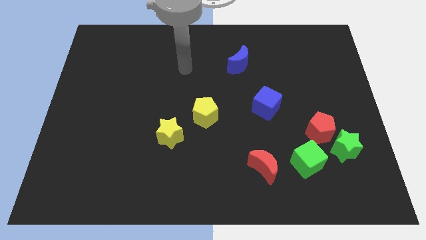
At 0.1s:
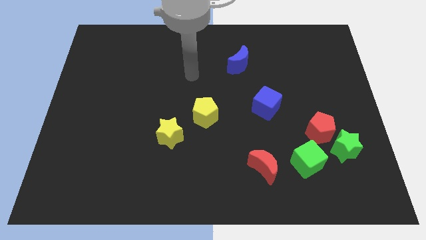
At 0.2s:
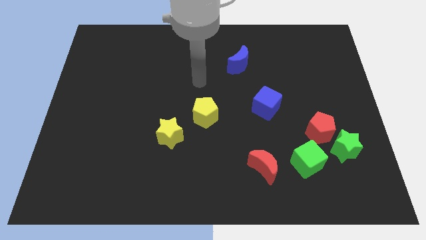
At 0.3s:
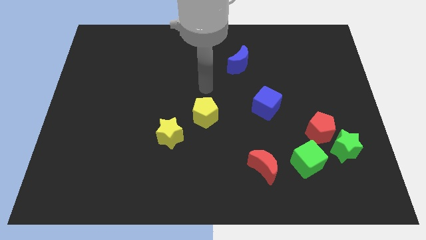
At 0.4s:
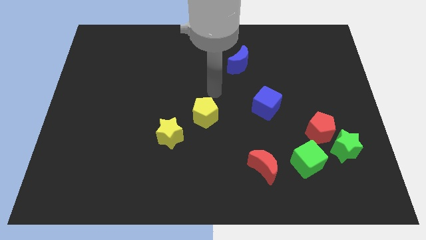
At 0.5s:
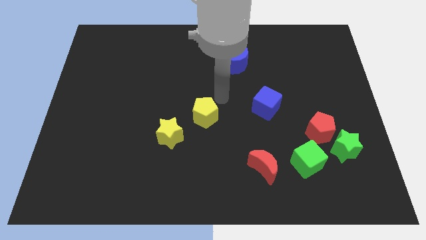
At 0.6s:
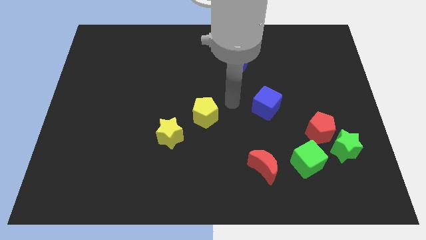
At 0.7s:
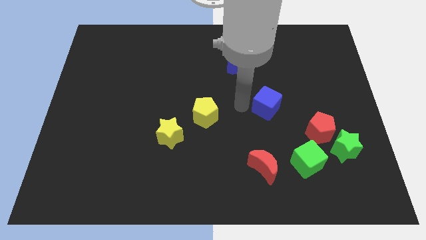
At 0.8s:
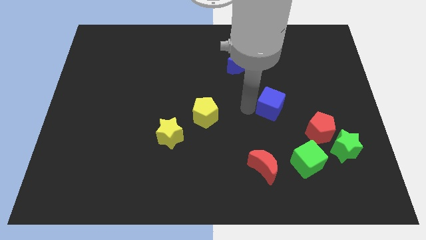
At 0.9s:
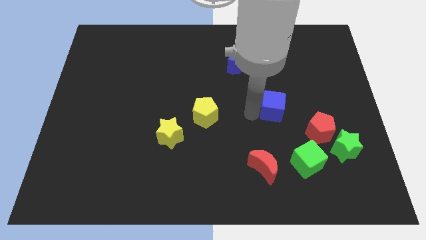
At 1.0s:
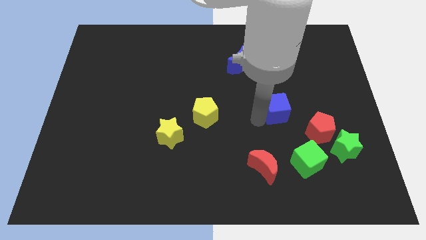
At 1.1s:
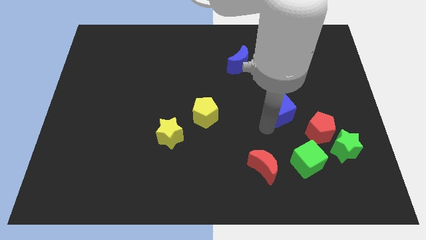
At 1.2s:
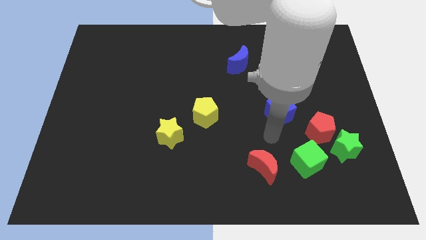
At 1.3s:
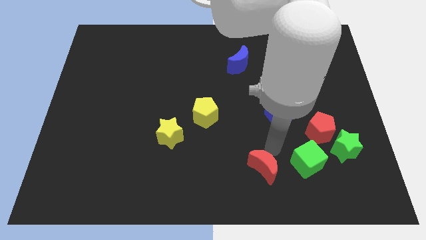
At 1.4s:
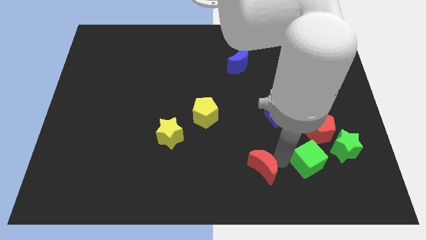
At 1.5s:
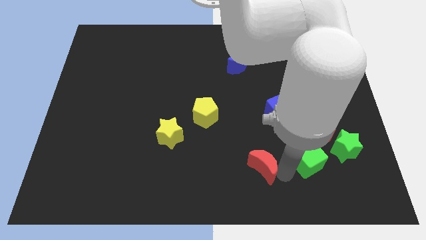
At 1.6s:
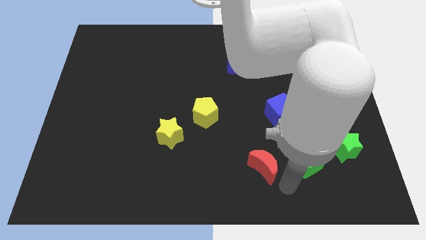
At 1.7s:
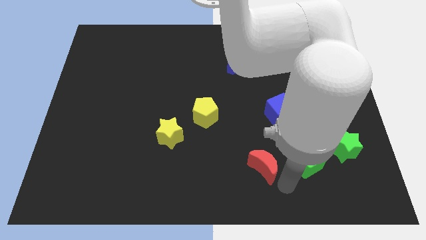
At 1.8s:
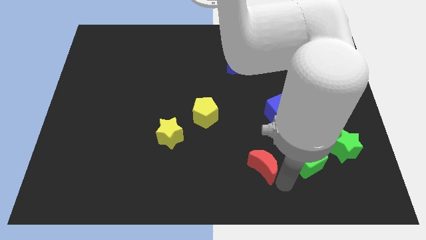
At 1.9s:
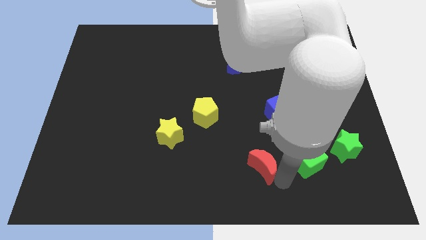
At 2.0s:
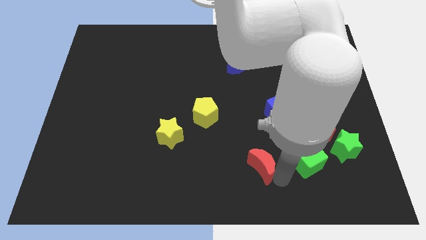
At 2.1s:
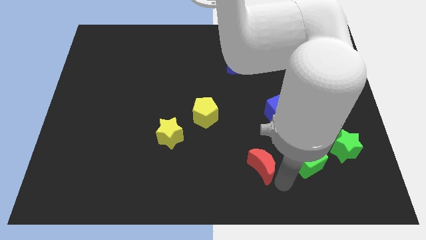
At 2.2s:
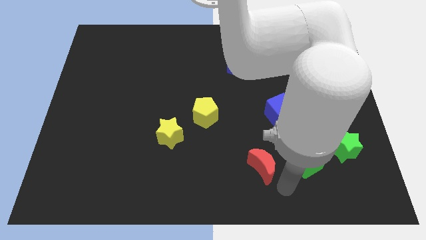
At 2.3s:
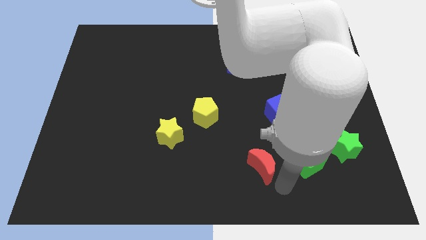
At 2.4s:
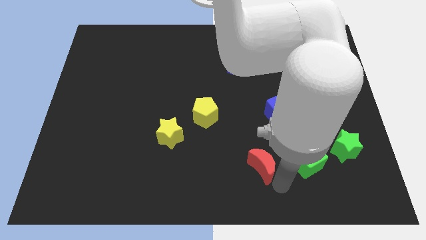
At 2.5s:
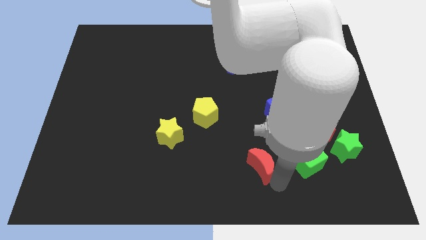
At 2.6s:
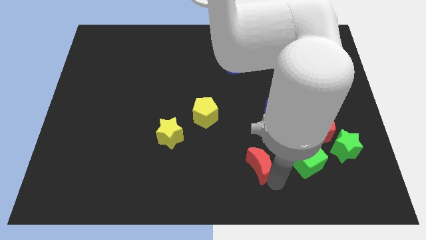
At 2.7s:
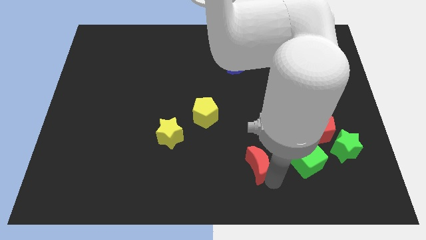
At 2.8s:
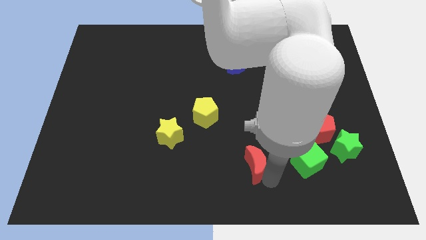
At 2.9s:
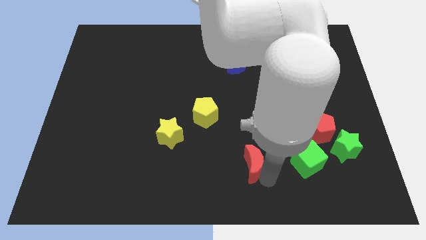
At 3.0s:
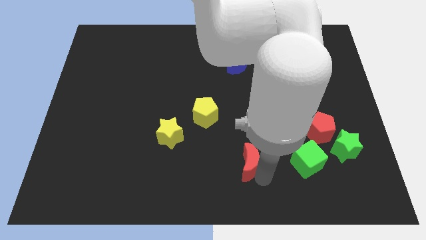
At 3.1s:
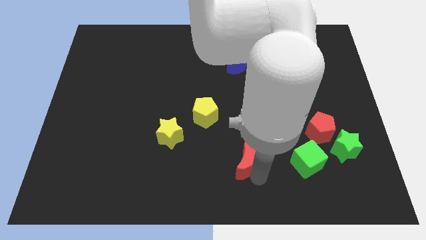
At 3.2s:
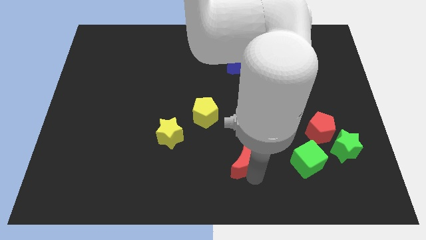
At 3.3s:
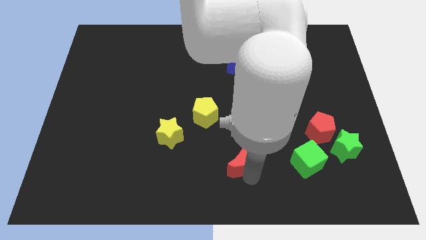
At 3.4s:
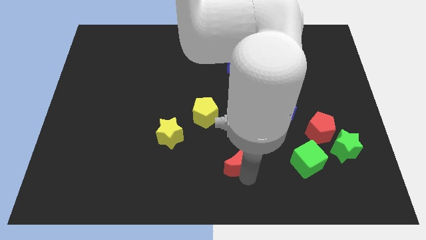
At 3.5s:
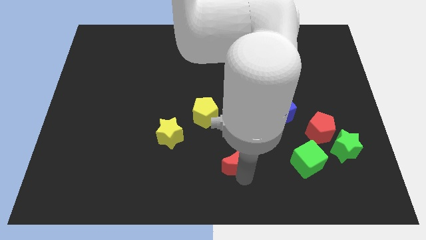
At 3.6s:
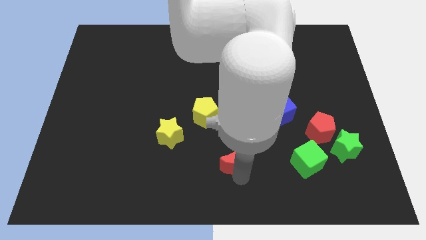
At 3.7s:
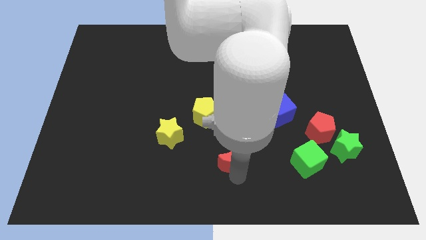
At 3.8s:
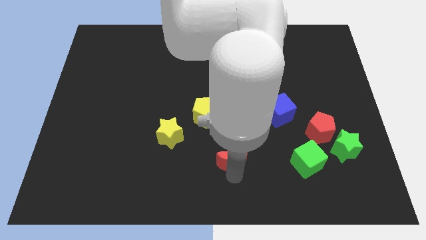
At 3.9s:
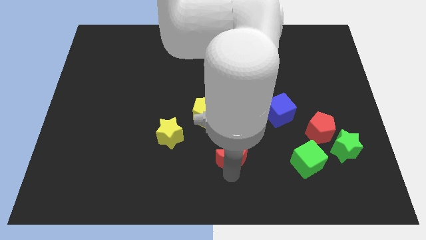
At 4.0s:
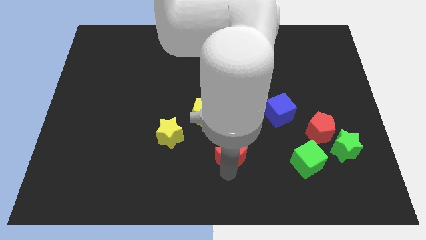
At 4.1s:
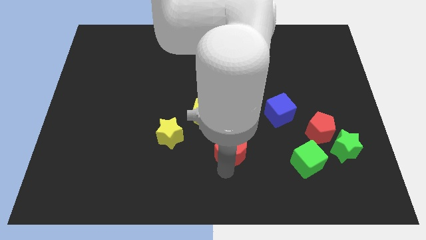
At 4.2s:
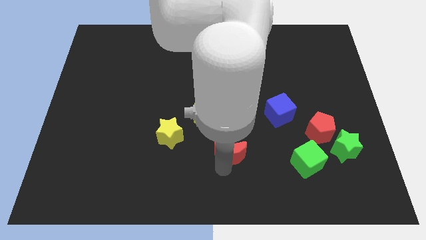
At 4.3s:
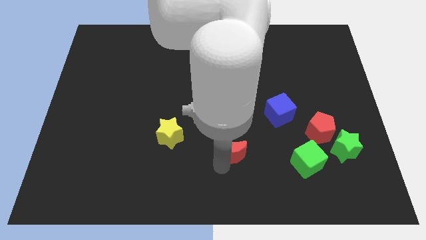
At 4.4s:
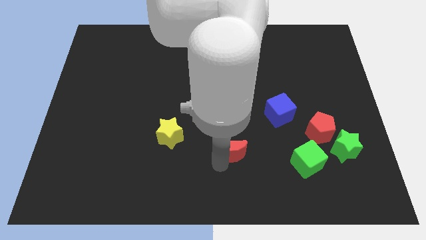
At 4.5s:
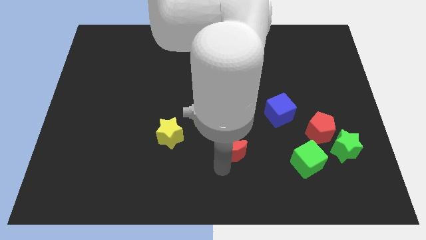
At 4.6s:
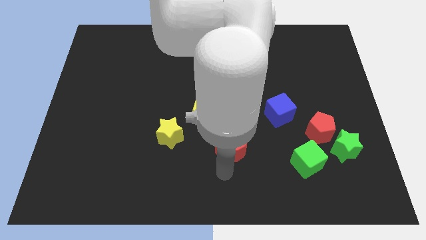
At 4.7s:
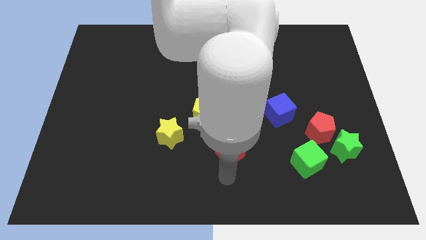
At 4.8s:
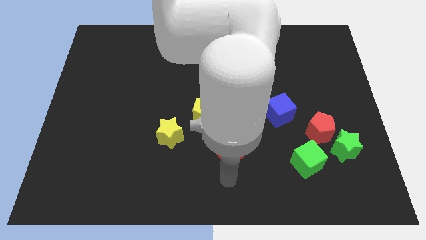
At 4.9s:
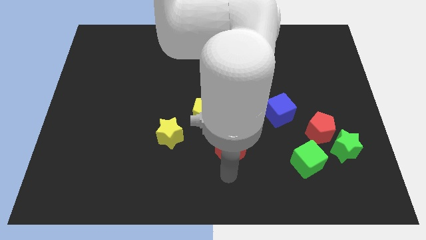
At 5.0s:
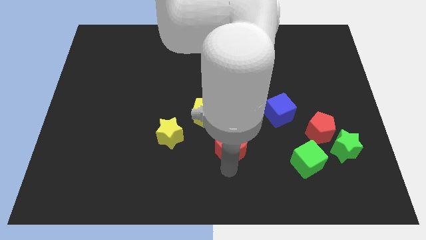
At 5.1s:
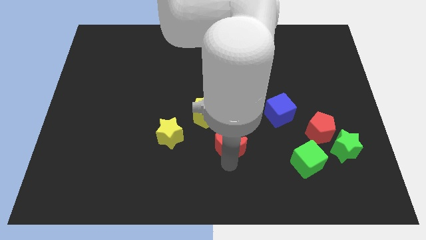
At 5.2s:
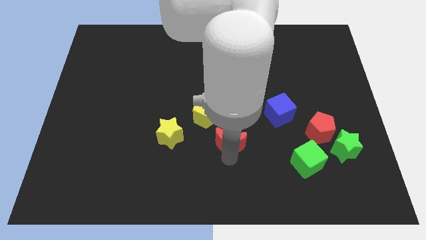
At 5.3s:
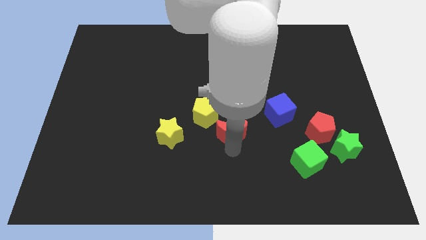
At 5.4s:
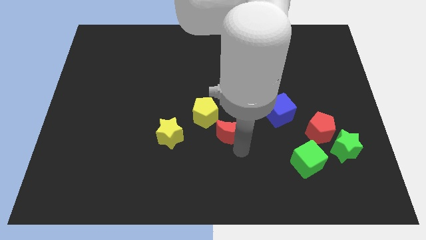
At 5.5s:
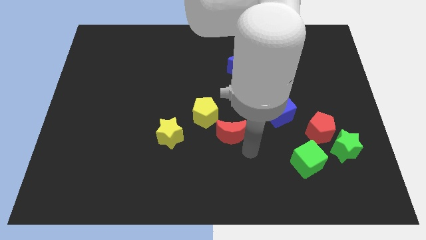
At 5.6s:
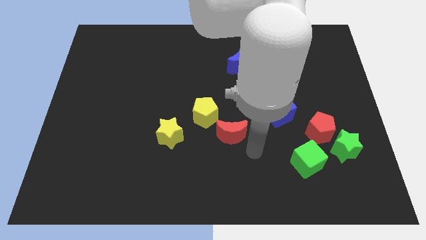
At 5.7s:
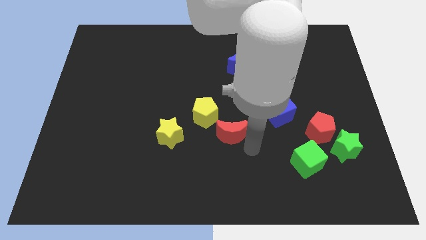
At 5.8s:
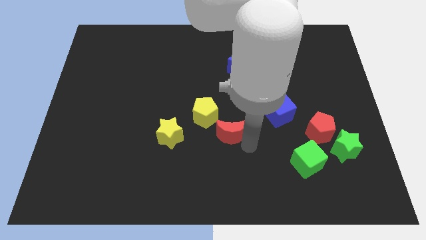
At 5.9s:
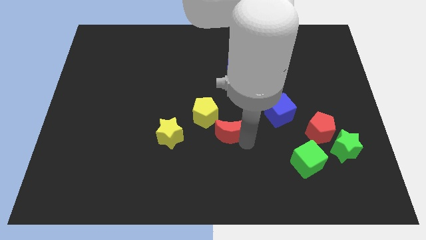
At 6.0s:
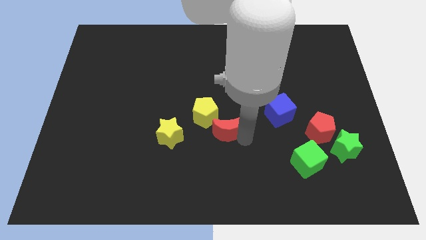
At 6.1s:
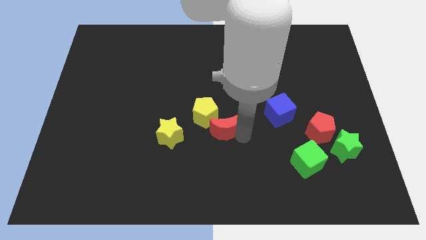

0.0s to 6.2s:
put the red moon towards the yellow pentagon

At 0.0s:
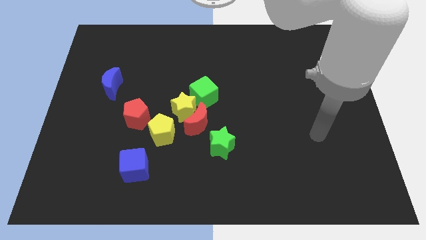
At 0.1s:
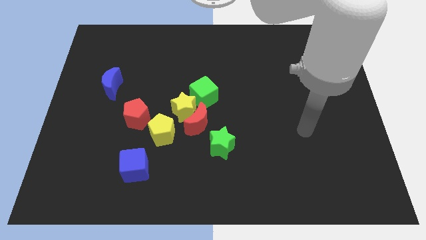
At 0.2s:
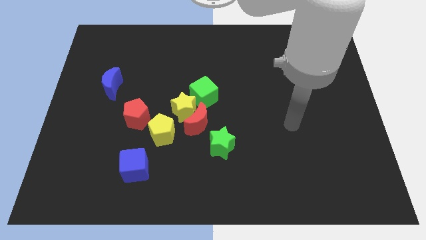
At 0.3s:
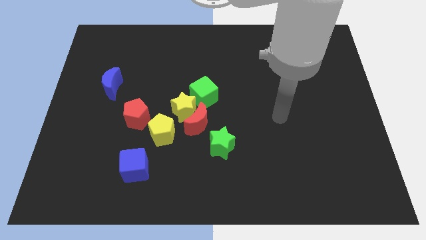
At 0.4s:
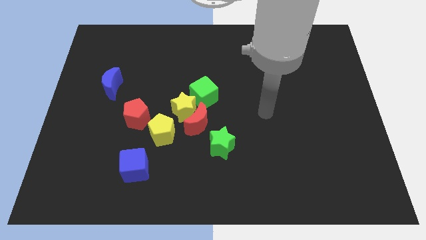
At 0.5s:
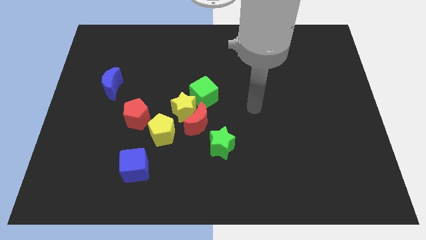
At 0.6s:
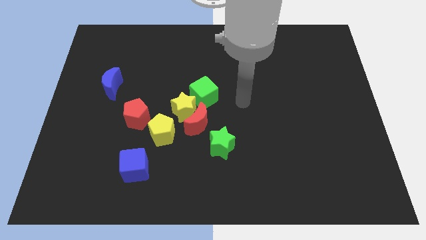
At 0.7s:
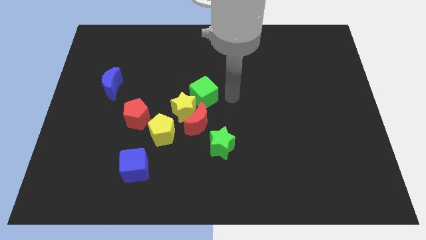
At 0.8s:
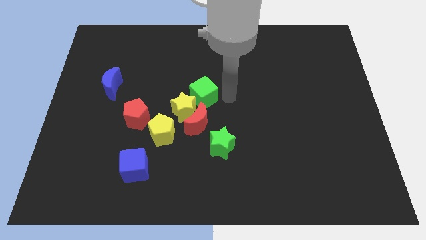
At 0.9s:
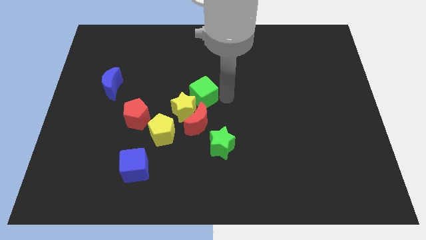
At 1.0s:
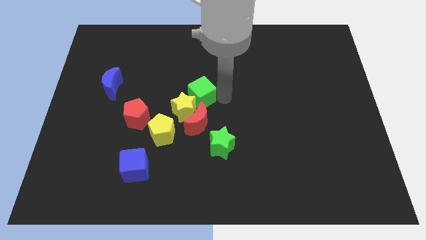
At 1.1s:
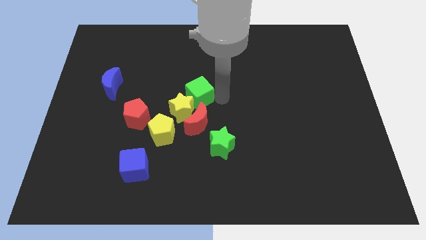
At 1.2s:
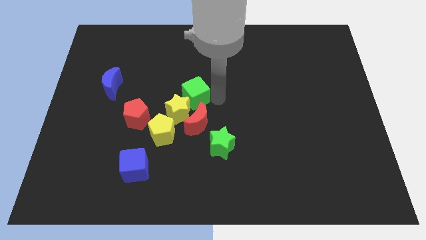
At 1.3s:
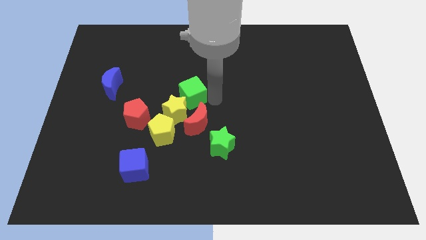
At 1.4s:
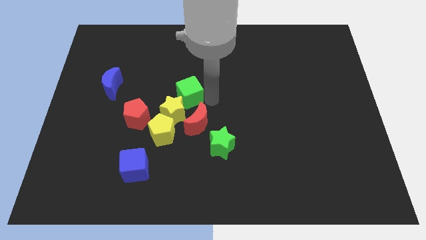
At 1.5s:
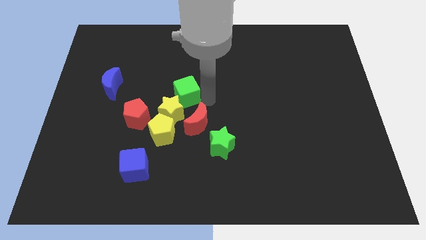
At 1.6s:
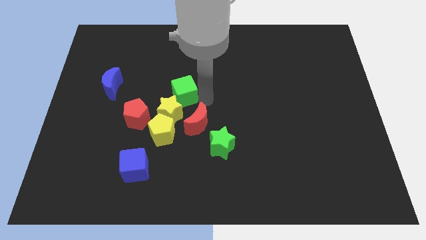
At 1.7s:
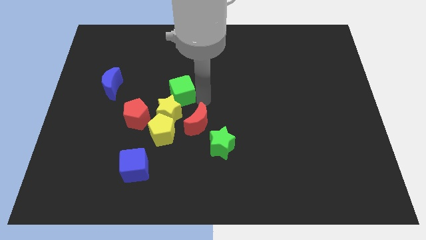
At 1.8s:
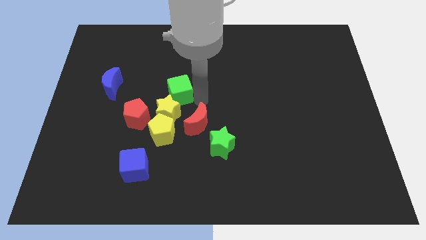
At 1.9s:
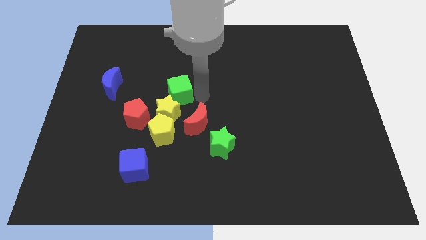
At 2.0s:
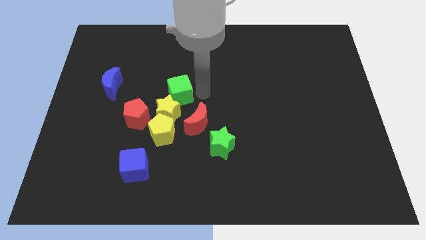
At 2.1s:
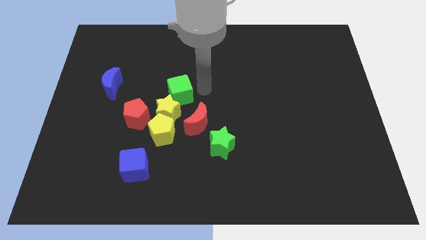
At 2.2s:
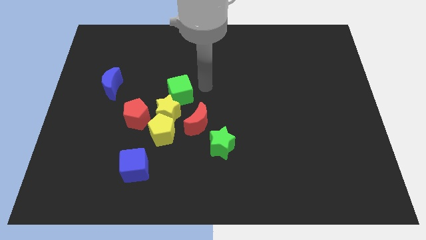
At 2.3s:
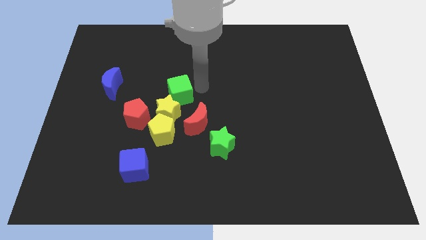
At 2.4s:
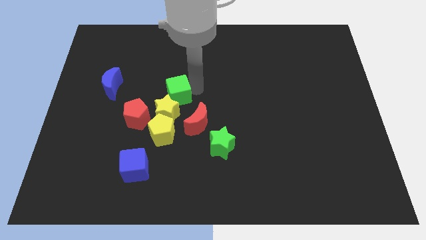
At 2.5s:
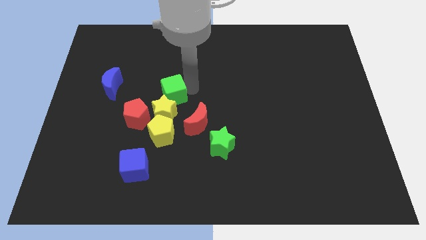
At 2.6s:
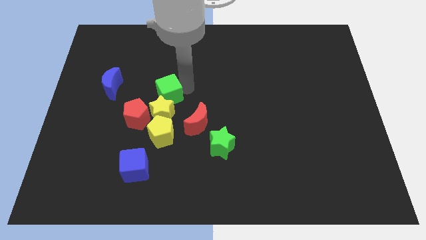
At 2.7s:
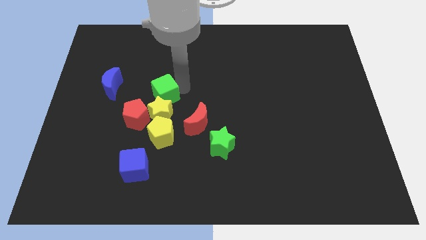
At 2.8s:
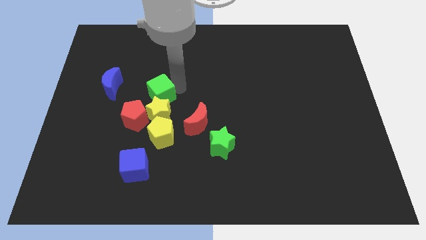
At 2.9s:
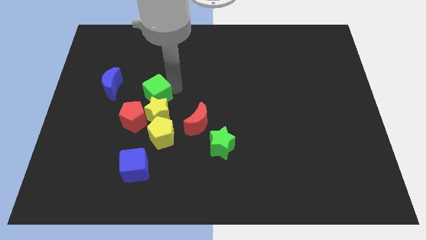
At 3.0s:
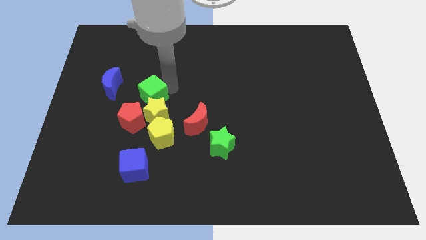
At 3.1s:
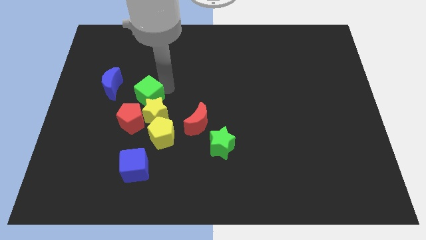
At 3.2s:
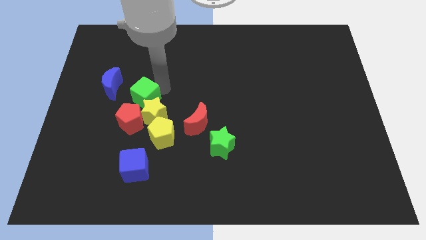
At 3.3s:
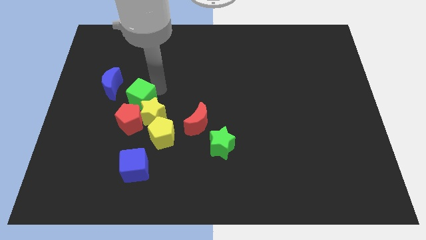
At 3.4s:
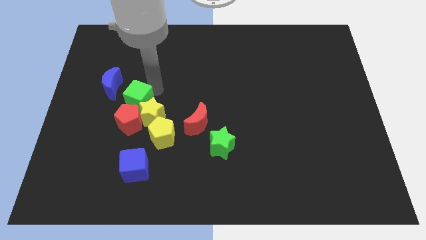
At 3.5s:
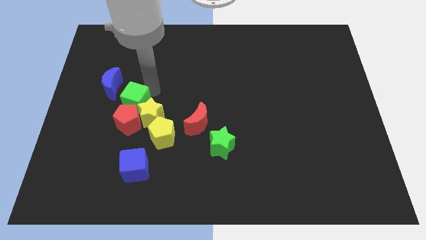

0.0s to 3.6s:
put the green cube close to the red pentagon
